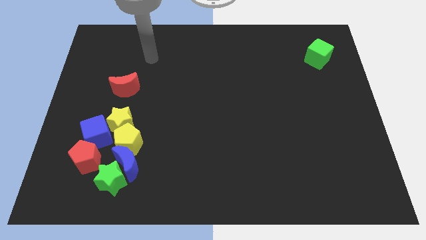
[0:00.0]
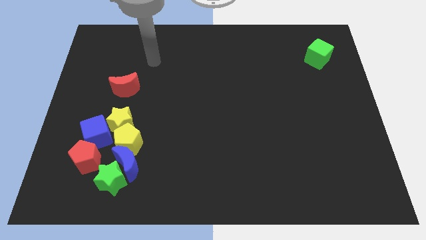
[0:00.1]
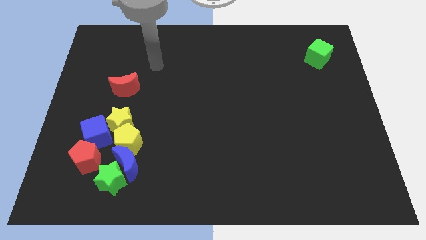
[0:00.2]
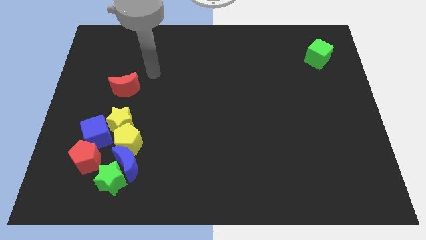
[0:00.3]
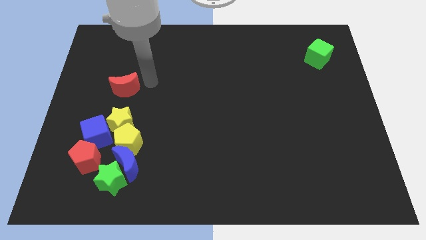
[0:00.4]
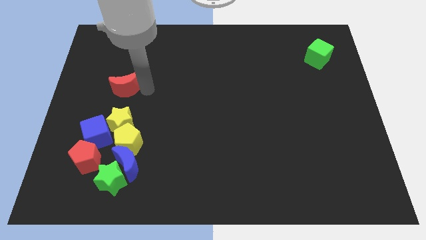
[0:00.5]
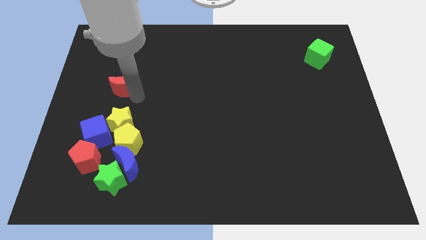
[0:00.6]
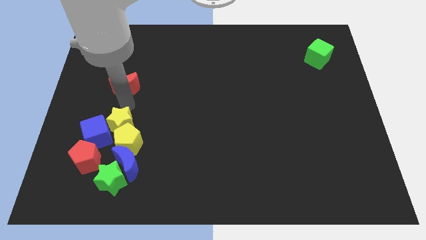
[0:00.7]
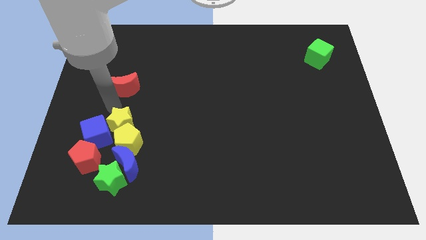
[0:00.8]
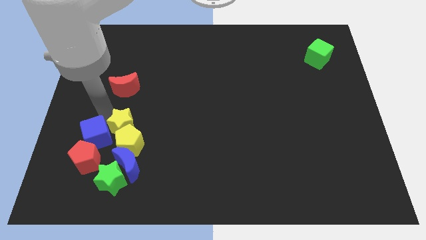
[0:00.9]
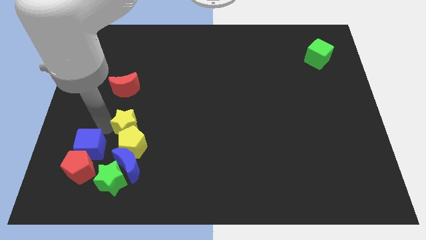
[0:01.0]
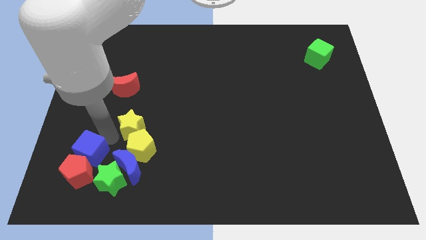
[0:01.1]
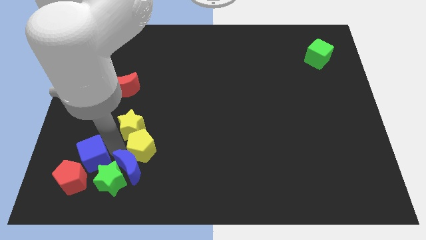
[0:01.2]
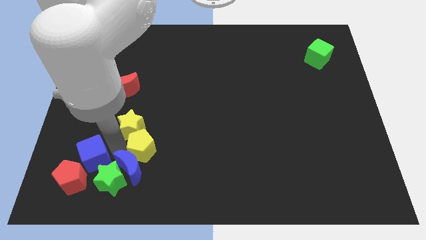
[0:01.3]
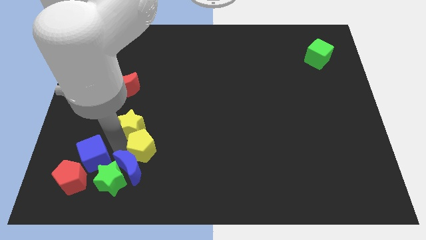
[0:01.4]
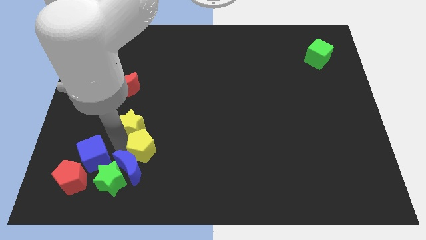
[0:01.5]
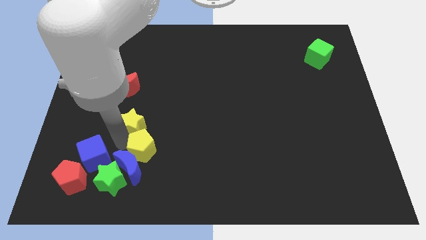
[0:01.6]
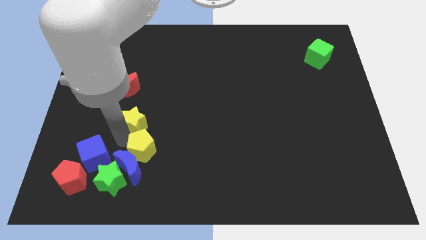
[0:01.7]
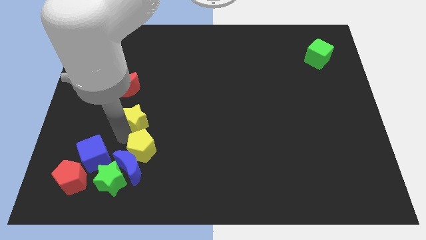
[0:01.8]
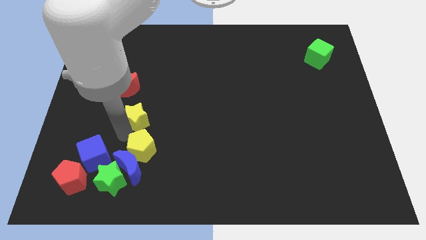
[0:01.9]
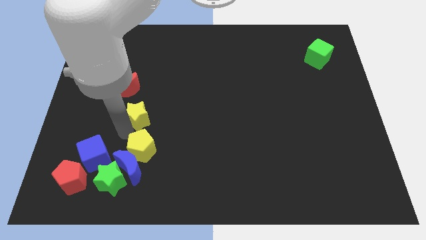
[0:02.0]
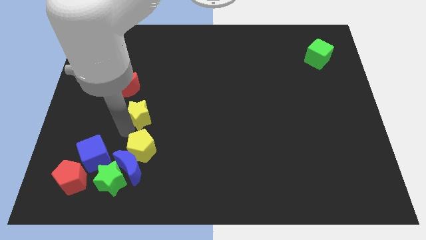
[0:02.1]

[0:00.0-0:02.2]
separate the yellow star from the yellow pentagon and blue cube

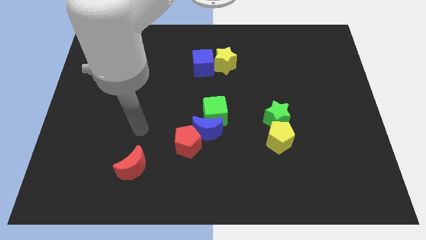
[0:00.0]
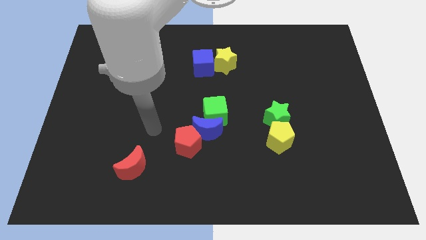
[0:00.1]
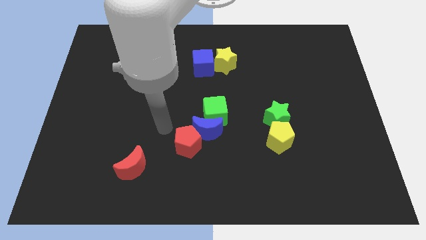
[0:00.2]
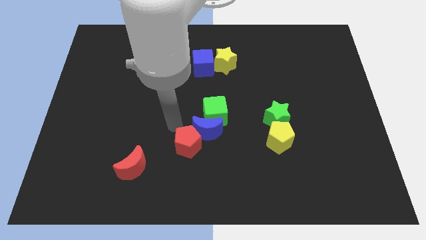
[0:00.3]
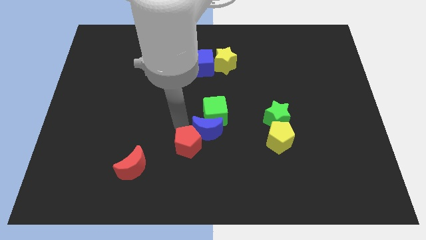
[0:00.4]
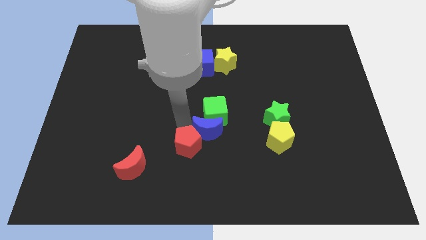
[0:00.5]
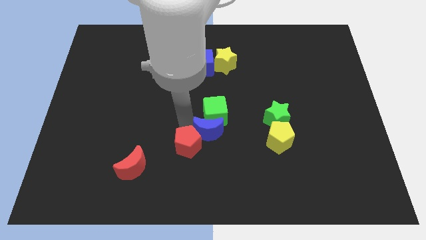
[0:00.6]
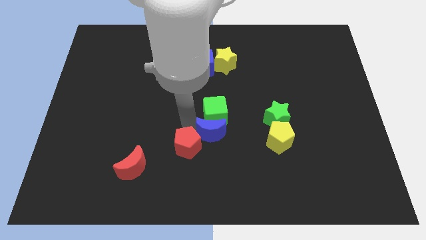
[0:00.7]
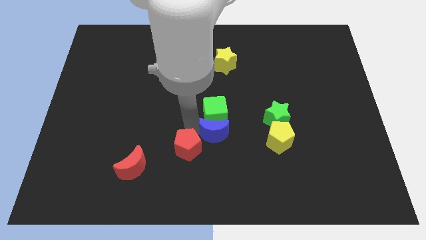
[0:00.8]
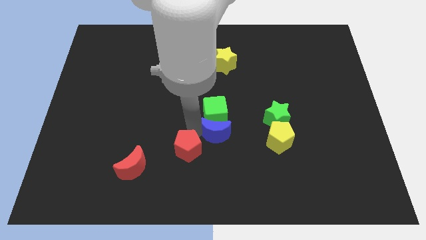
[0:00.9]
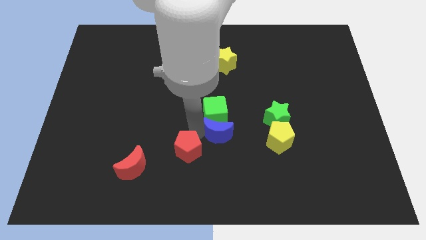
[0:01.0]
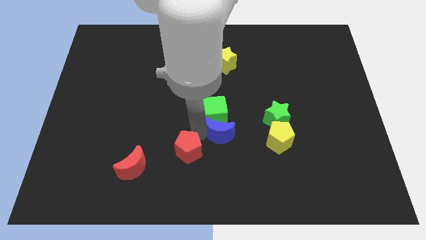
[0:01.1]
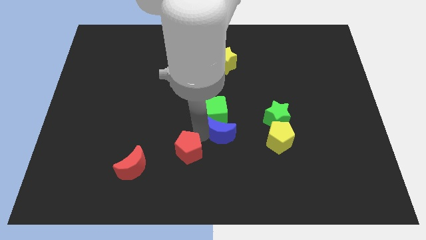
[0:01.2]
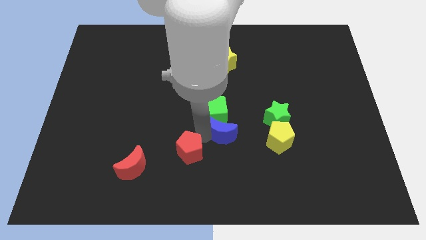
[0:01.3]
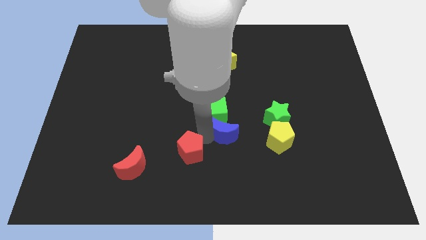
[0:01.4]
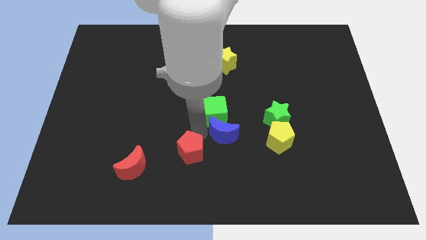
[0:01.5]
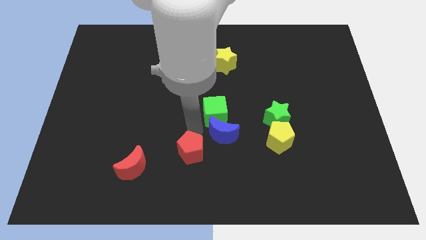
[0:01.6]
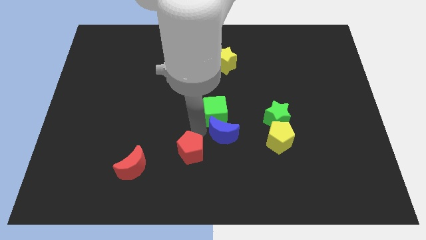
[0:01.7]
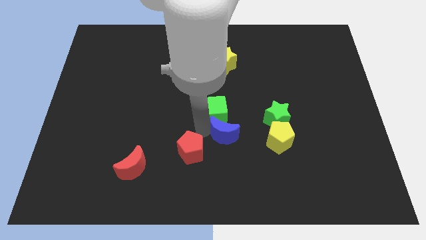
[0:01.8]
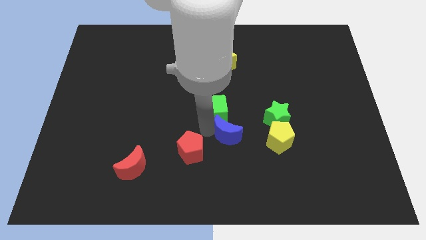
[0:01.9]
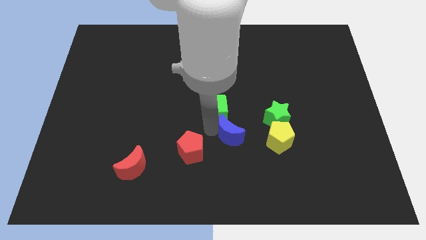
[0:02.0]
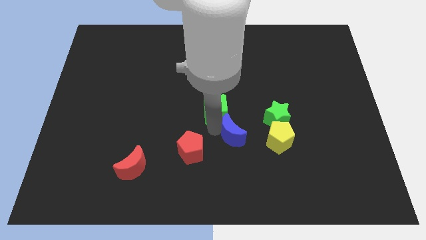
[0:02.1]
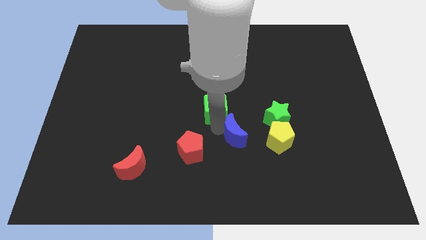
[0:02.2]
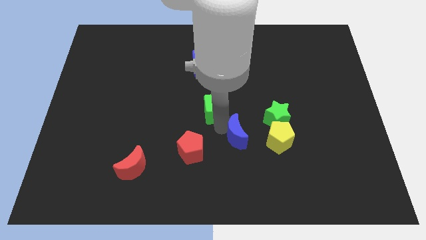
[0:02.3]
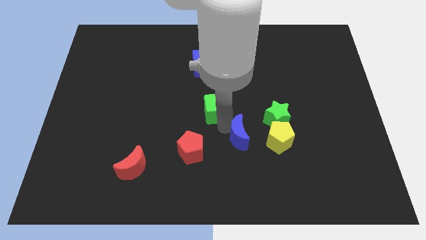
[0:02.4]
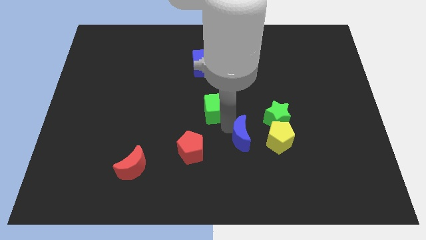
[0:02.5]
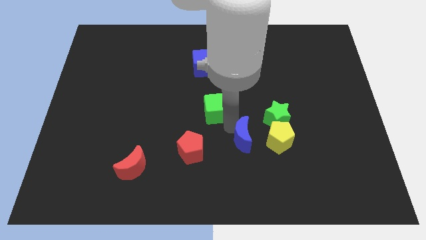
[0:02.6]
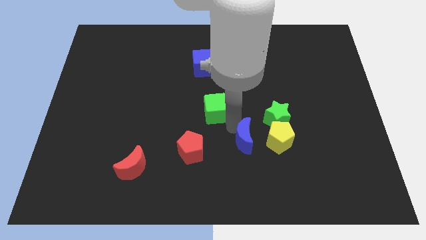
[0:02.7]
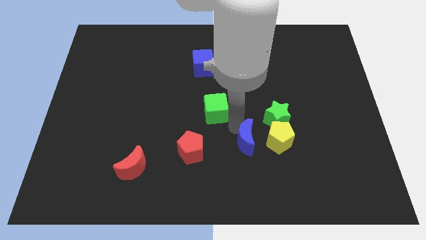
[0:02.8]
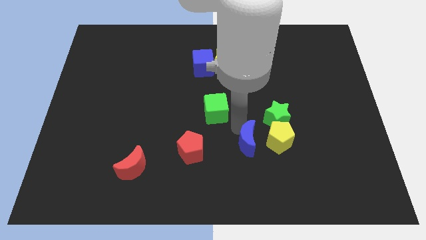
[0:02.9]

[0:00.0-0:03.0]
pull the blue moon apart from the green cube and red pentagon

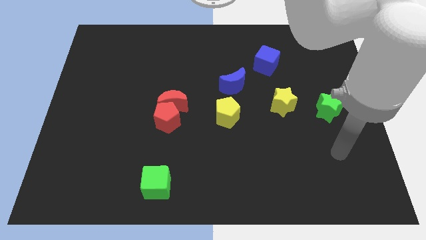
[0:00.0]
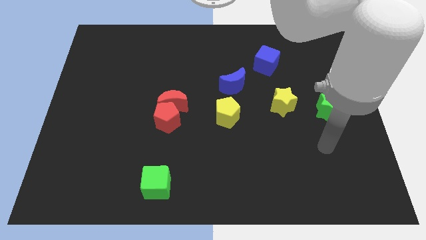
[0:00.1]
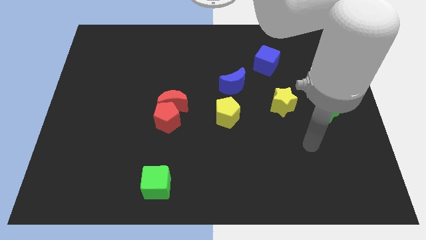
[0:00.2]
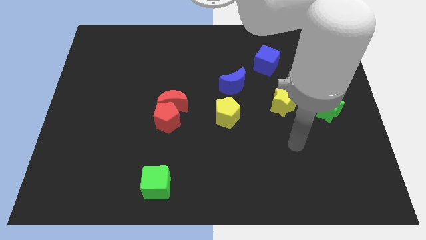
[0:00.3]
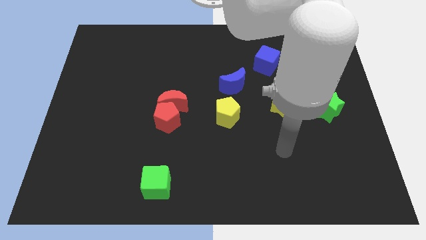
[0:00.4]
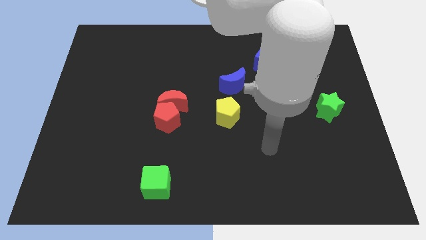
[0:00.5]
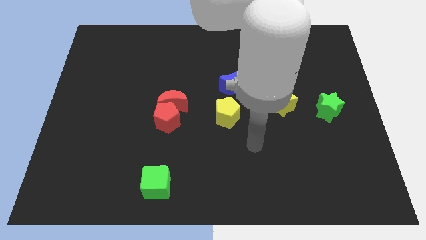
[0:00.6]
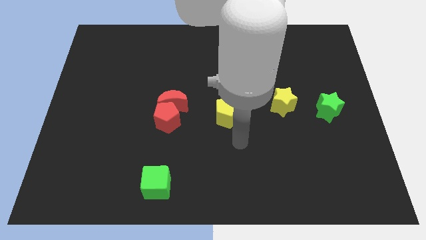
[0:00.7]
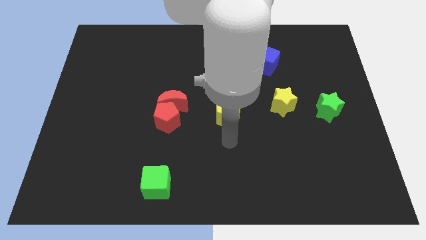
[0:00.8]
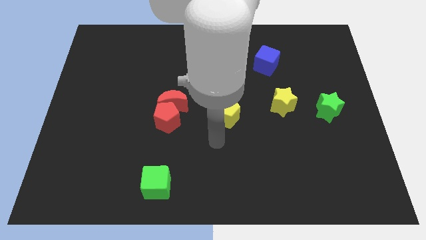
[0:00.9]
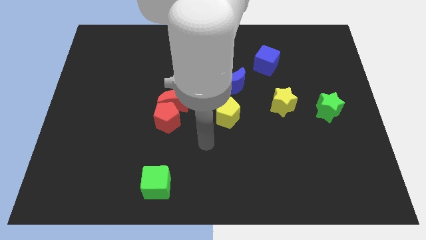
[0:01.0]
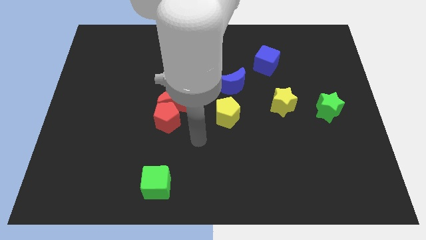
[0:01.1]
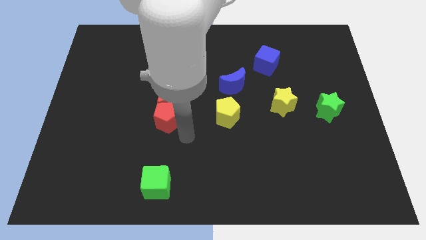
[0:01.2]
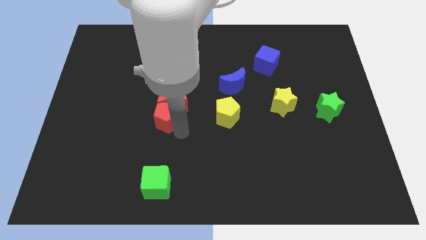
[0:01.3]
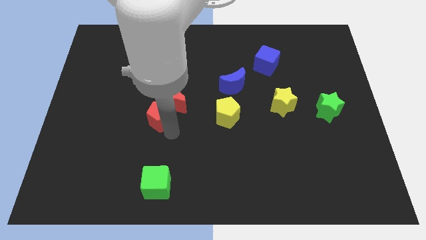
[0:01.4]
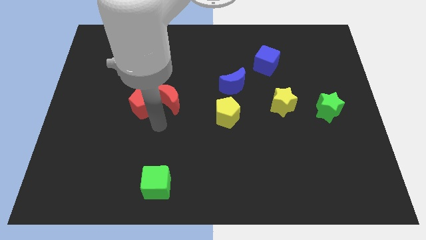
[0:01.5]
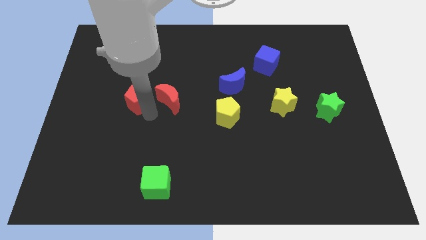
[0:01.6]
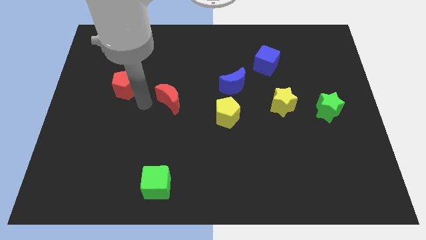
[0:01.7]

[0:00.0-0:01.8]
separate the red moon from the red pentagon

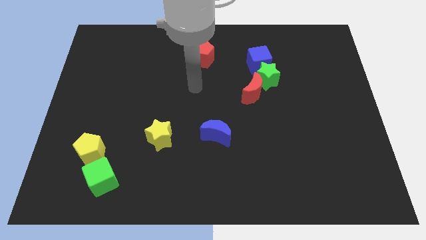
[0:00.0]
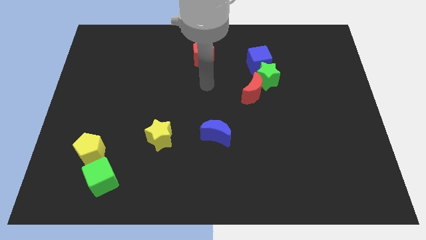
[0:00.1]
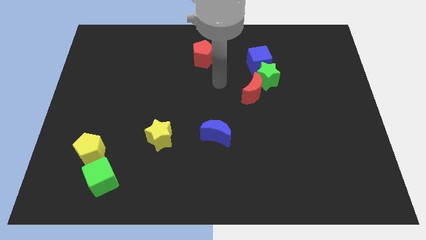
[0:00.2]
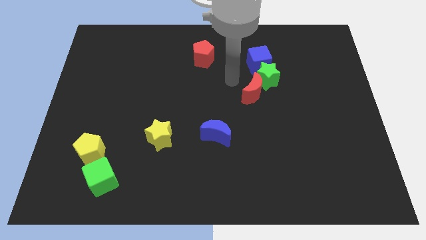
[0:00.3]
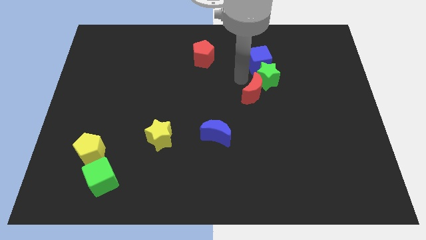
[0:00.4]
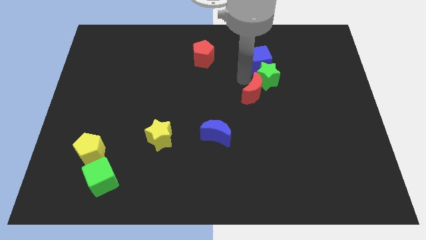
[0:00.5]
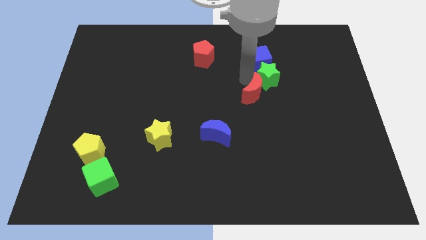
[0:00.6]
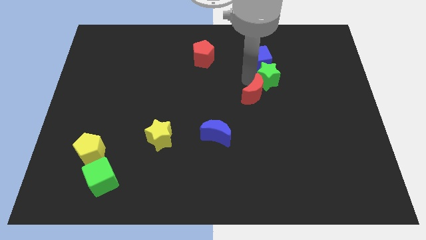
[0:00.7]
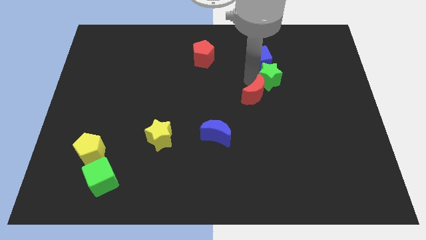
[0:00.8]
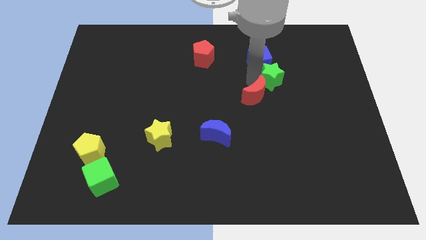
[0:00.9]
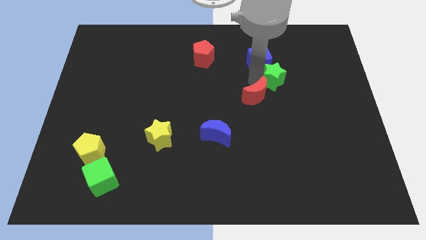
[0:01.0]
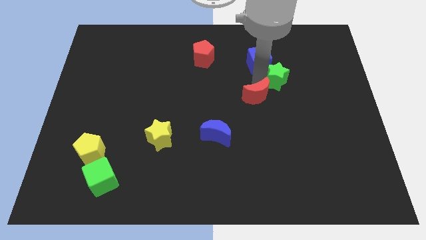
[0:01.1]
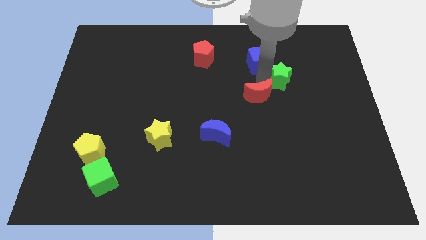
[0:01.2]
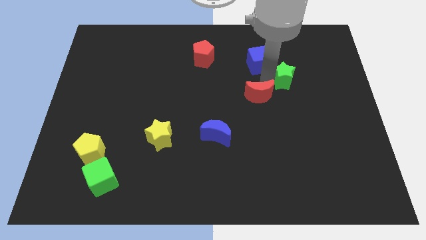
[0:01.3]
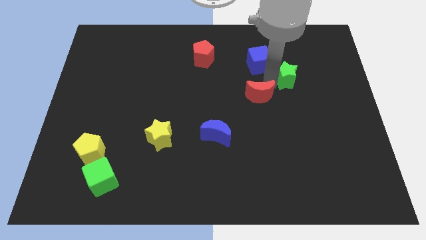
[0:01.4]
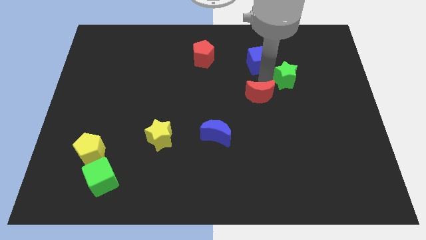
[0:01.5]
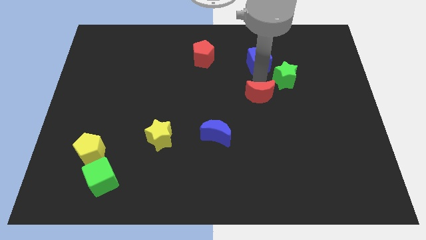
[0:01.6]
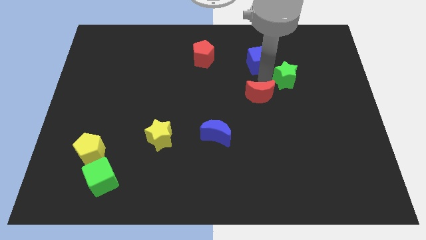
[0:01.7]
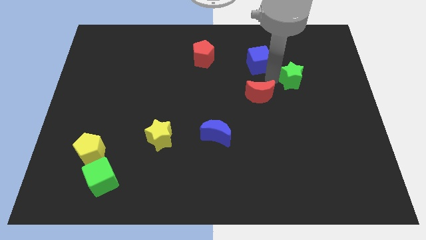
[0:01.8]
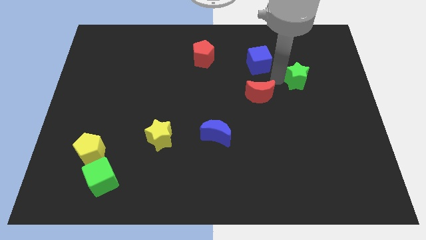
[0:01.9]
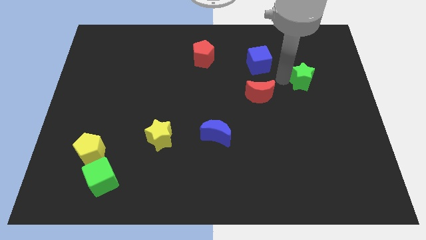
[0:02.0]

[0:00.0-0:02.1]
pull the green star apart from the blue cube and red moon

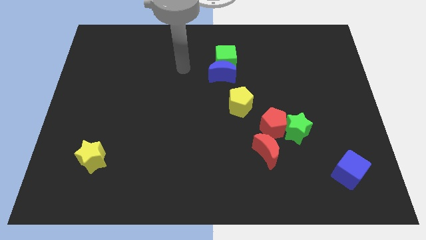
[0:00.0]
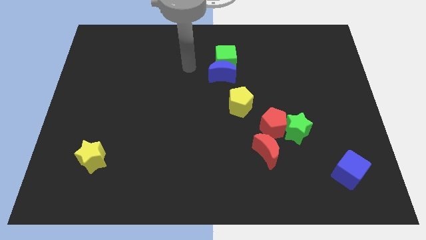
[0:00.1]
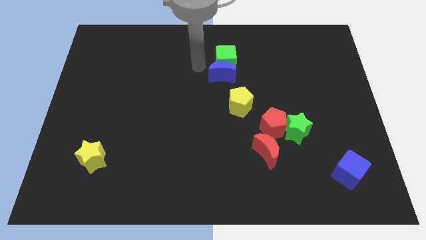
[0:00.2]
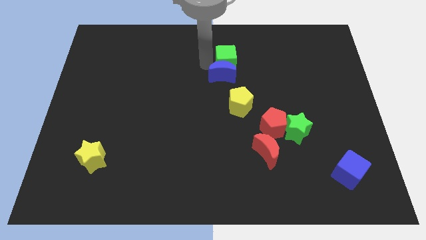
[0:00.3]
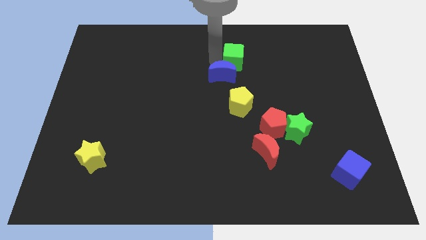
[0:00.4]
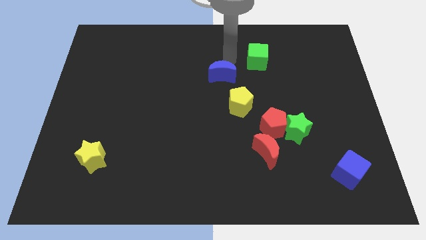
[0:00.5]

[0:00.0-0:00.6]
pull the blue moon apart from the green cube
